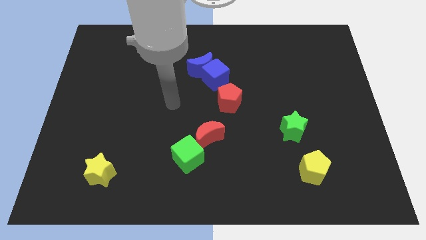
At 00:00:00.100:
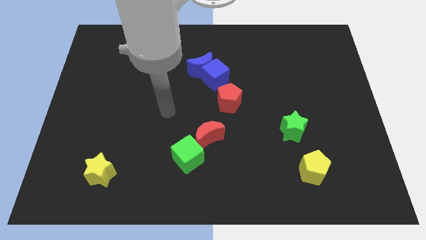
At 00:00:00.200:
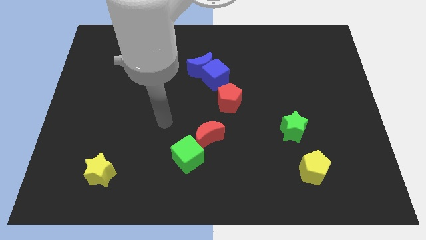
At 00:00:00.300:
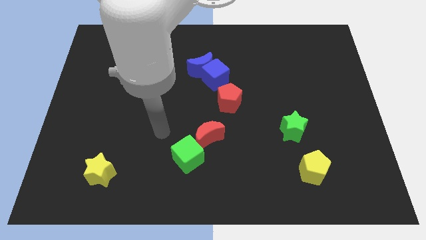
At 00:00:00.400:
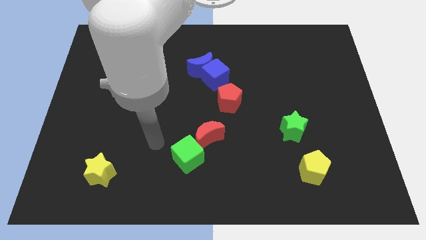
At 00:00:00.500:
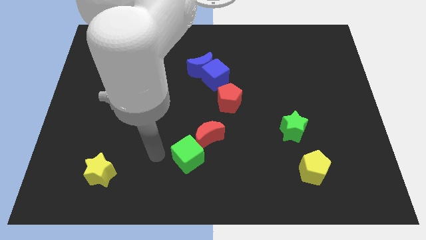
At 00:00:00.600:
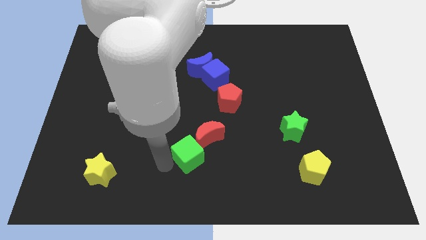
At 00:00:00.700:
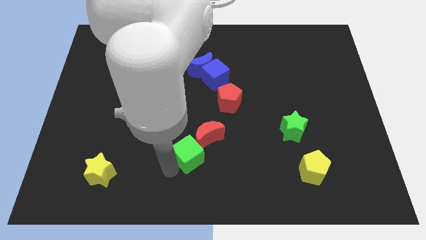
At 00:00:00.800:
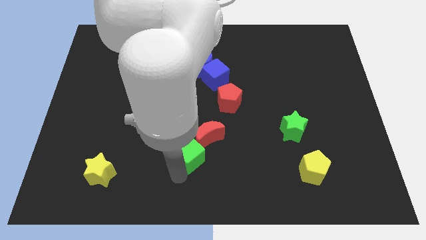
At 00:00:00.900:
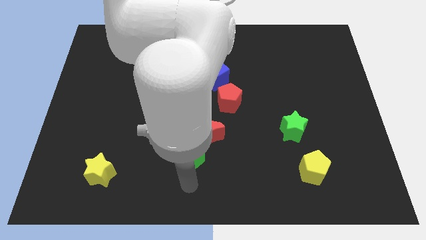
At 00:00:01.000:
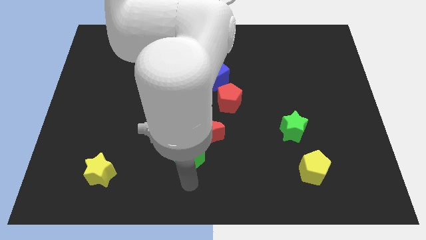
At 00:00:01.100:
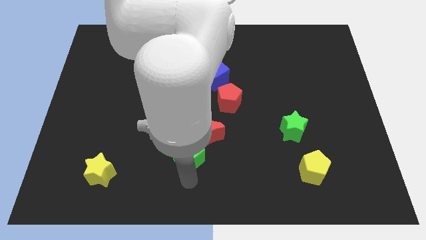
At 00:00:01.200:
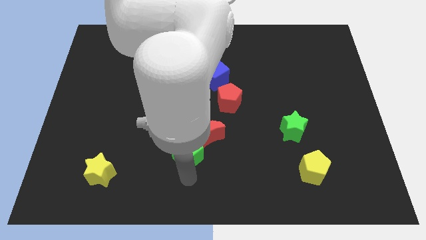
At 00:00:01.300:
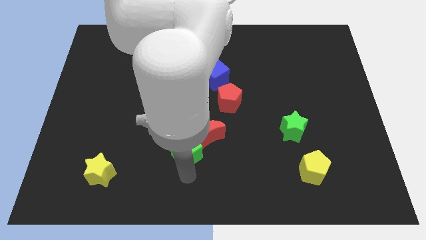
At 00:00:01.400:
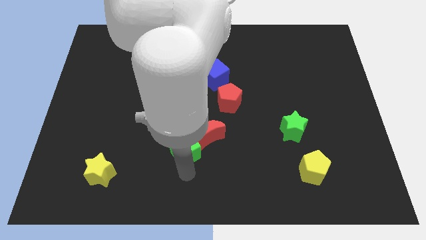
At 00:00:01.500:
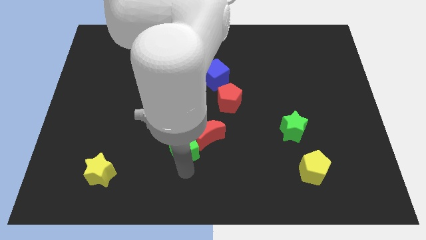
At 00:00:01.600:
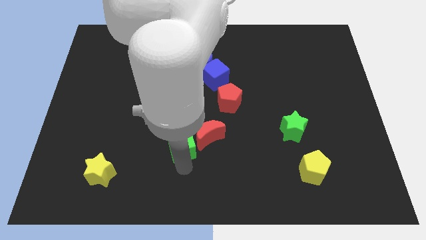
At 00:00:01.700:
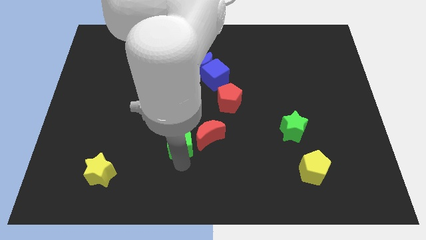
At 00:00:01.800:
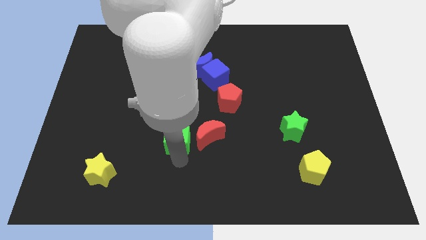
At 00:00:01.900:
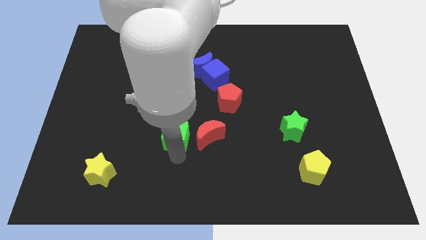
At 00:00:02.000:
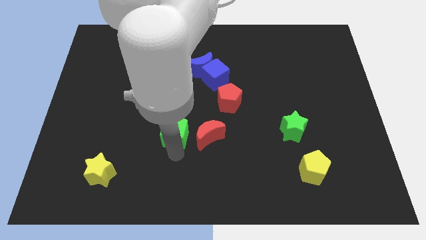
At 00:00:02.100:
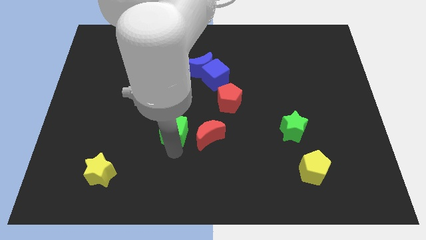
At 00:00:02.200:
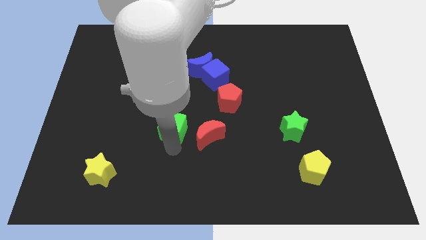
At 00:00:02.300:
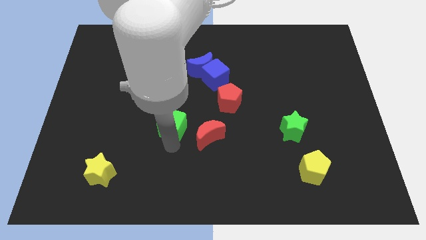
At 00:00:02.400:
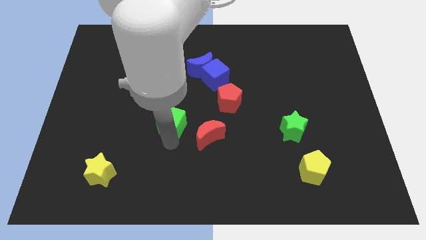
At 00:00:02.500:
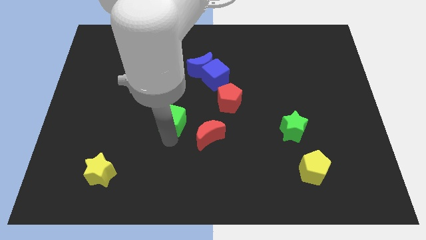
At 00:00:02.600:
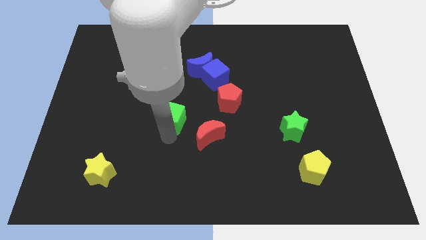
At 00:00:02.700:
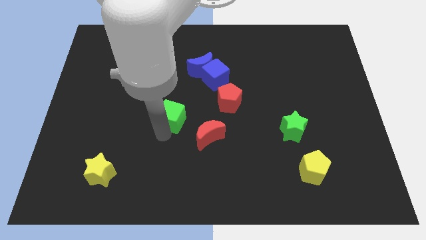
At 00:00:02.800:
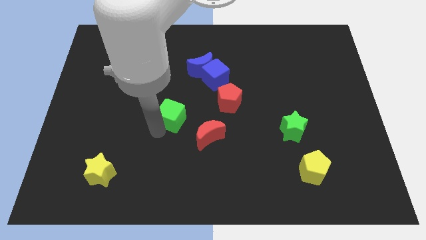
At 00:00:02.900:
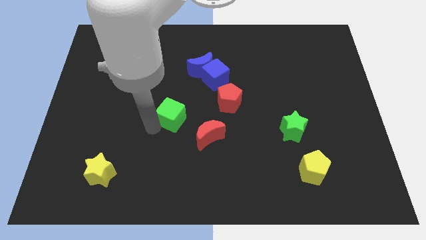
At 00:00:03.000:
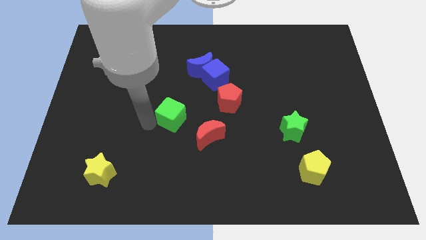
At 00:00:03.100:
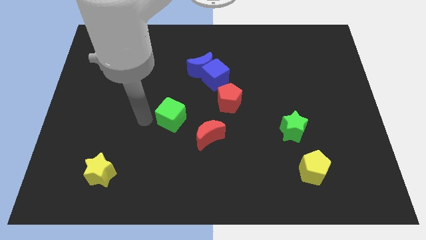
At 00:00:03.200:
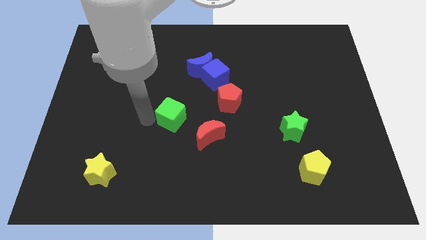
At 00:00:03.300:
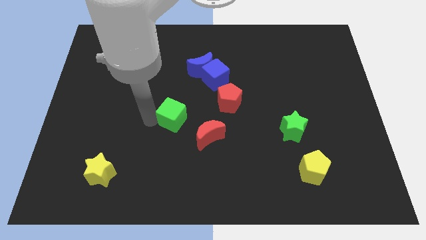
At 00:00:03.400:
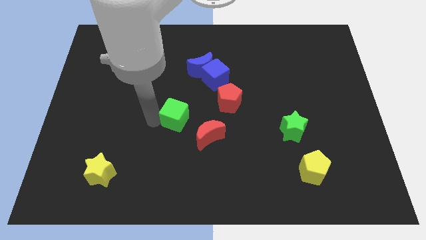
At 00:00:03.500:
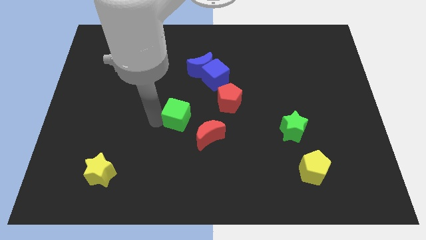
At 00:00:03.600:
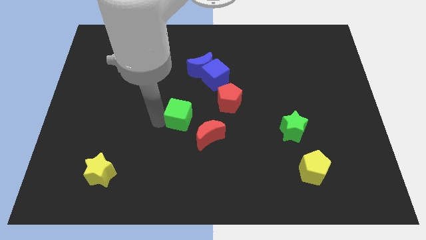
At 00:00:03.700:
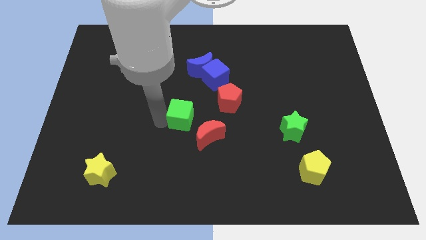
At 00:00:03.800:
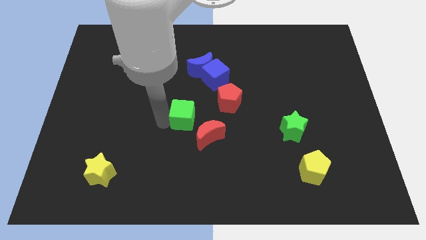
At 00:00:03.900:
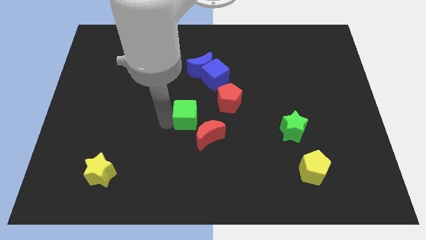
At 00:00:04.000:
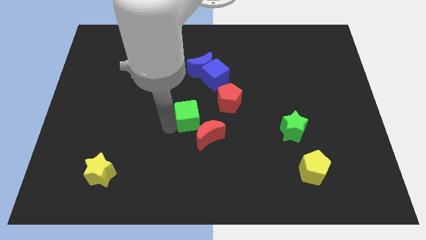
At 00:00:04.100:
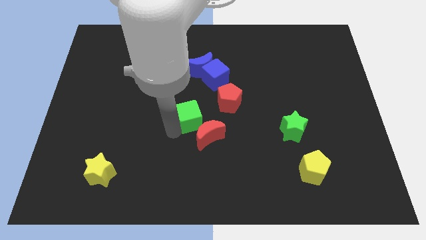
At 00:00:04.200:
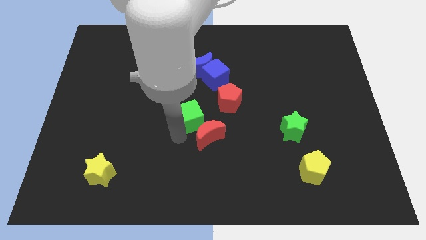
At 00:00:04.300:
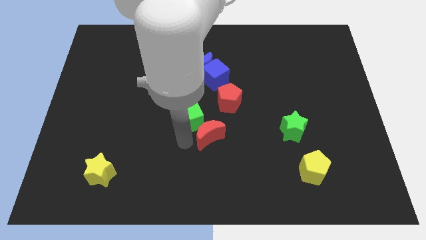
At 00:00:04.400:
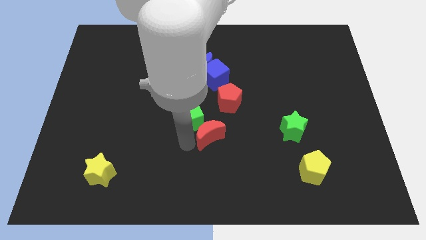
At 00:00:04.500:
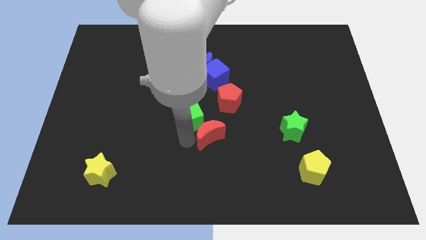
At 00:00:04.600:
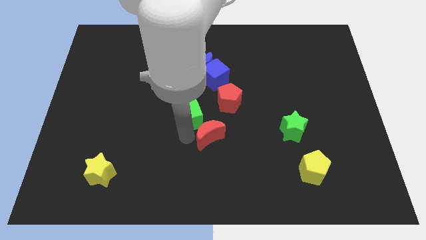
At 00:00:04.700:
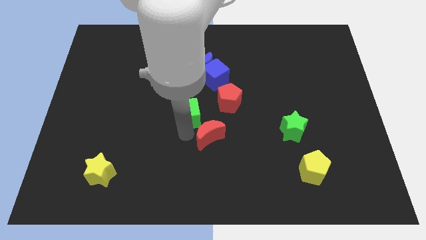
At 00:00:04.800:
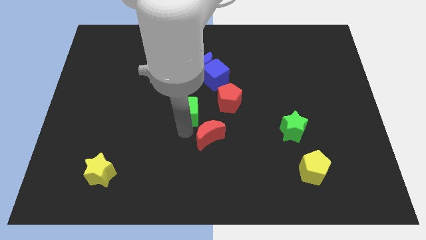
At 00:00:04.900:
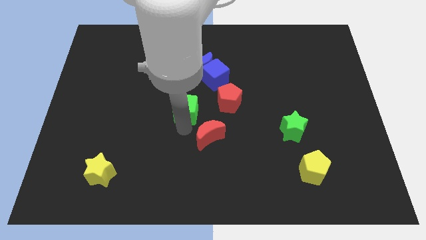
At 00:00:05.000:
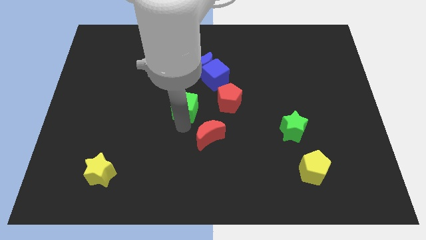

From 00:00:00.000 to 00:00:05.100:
put the green cube diagonally down and to the left of the blue cube

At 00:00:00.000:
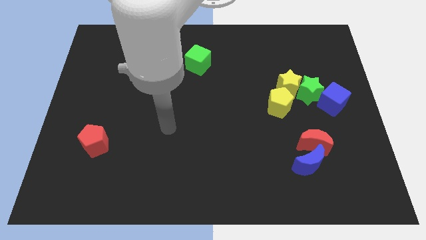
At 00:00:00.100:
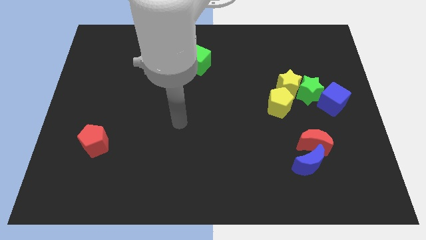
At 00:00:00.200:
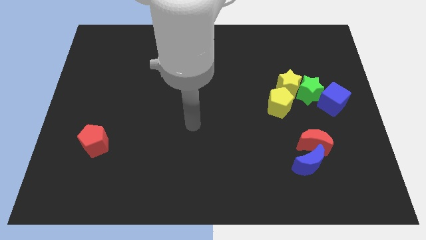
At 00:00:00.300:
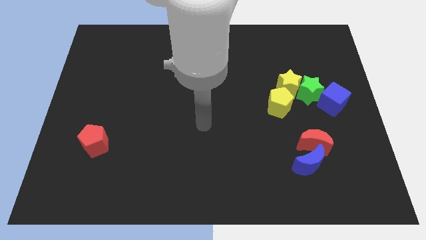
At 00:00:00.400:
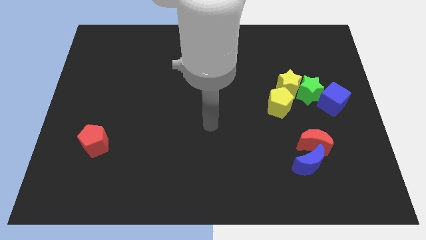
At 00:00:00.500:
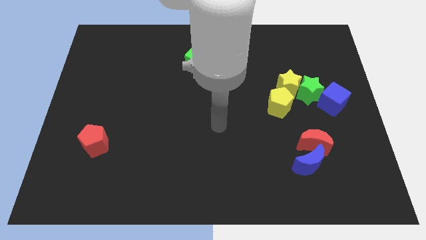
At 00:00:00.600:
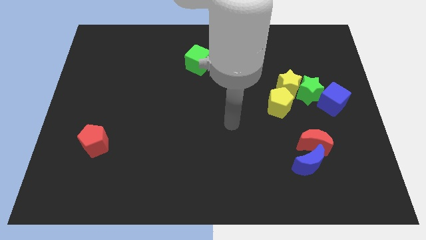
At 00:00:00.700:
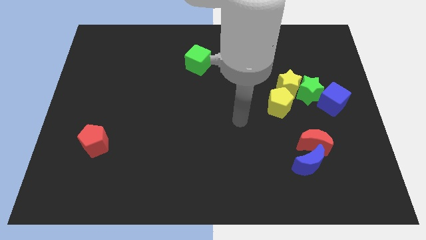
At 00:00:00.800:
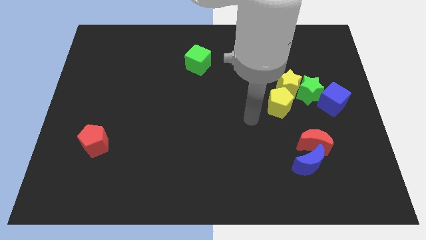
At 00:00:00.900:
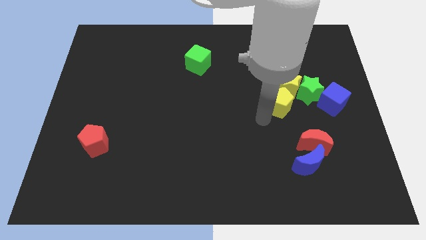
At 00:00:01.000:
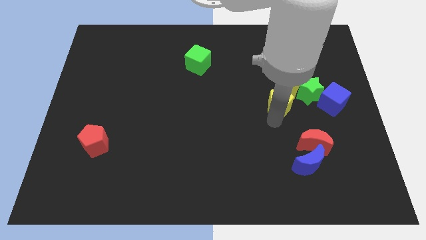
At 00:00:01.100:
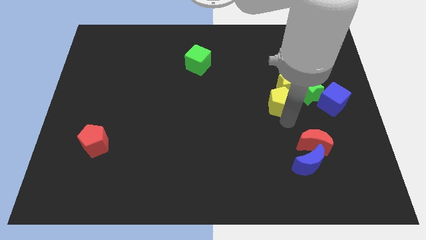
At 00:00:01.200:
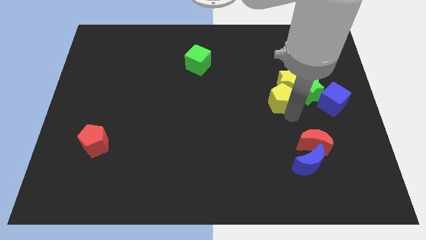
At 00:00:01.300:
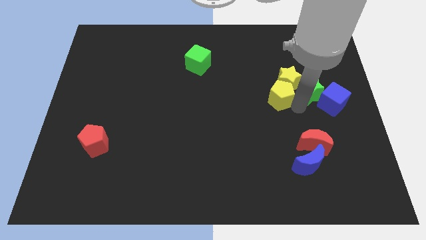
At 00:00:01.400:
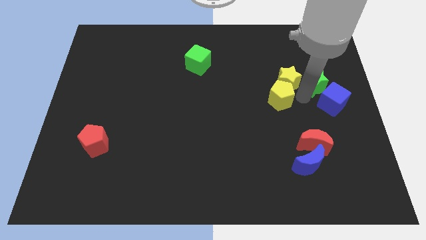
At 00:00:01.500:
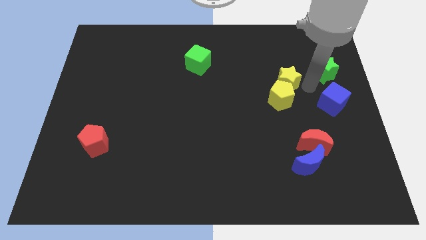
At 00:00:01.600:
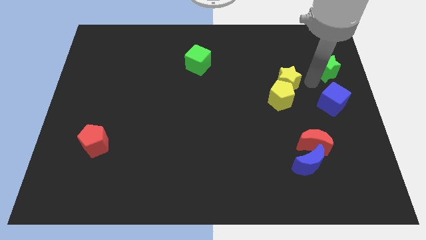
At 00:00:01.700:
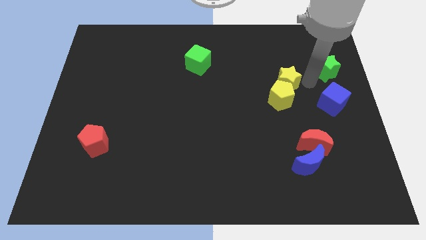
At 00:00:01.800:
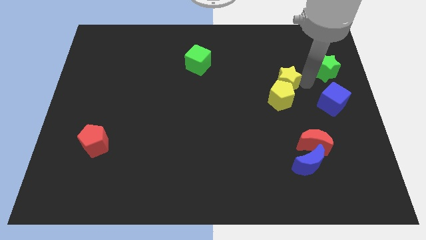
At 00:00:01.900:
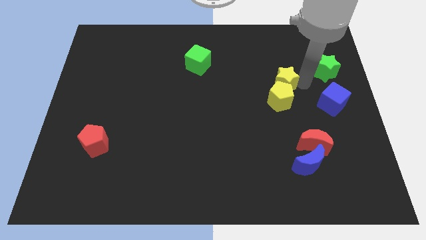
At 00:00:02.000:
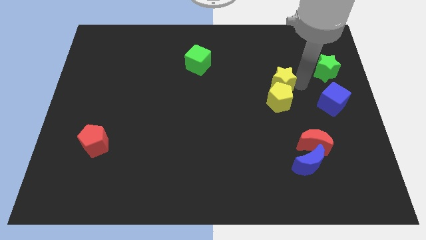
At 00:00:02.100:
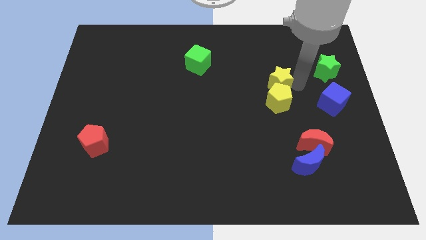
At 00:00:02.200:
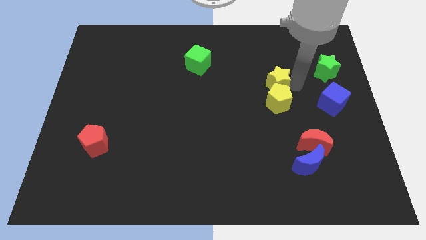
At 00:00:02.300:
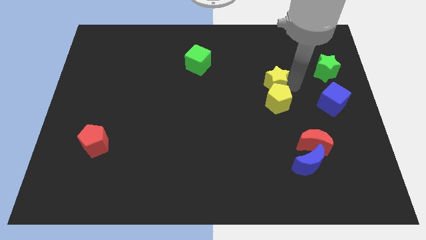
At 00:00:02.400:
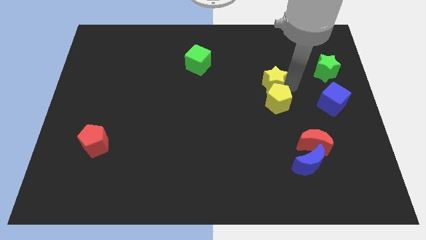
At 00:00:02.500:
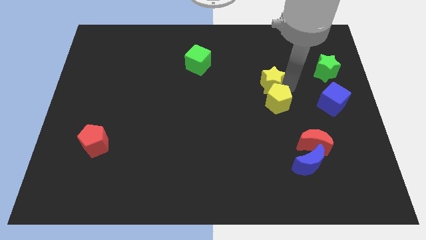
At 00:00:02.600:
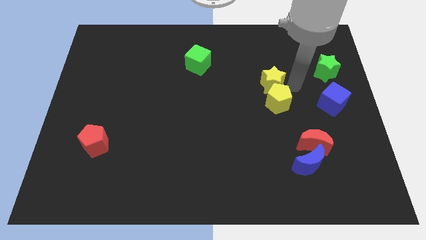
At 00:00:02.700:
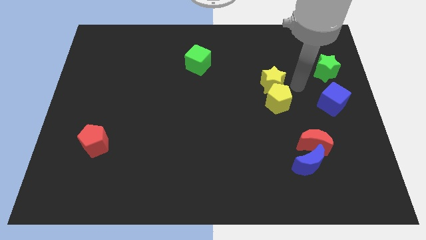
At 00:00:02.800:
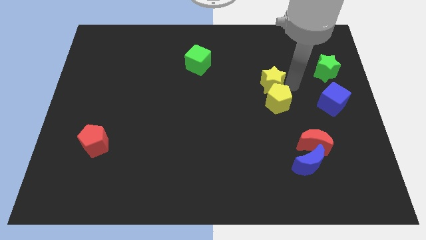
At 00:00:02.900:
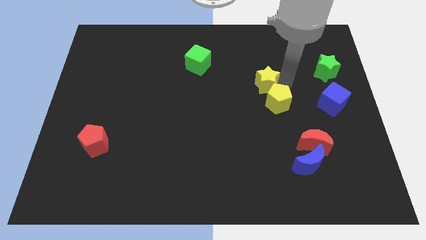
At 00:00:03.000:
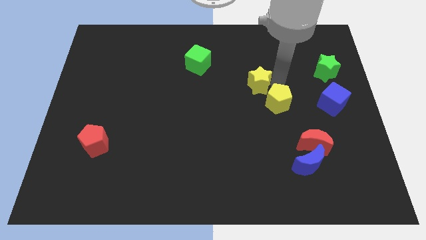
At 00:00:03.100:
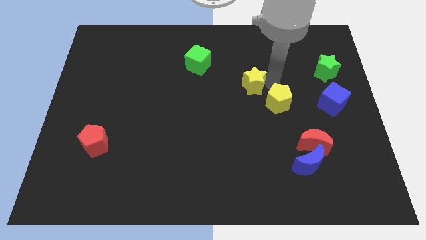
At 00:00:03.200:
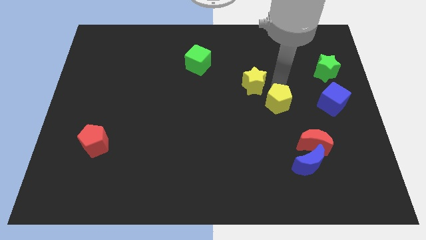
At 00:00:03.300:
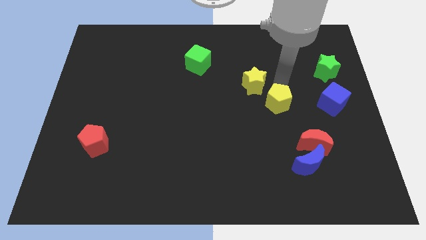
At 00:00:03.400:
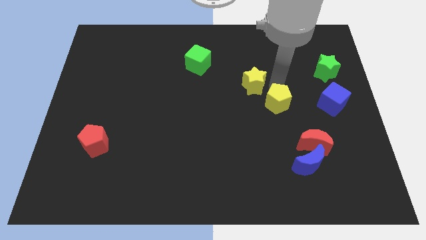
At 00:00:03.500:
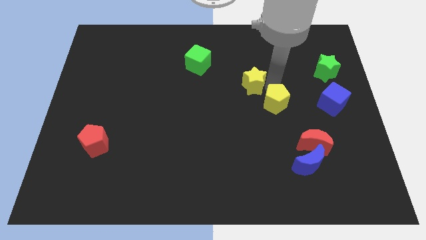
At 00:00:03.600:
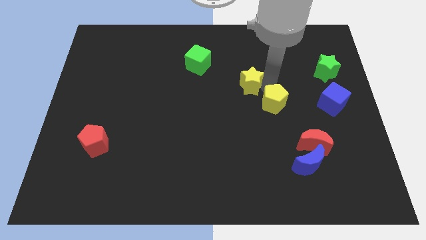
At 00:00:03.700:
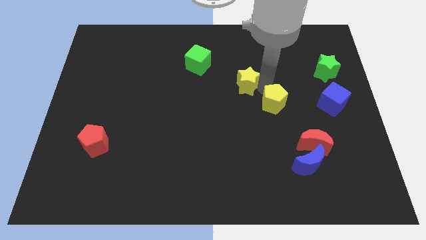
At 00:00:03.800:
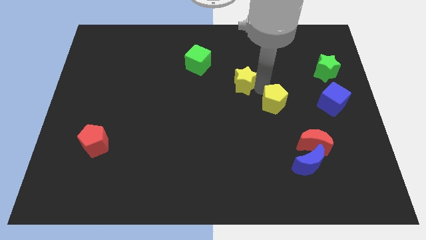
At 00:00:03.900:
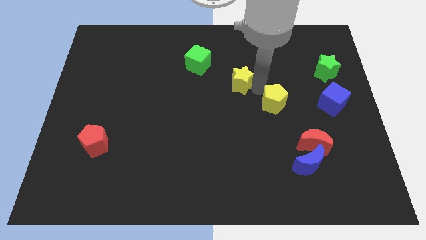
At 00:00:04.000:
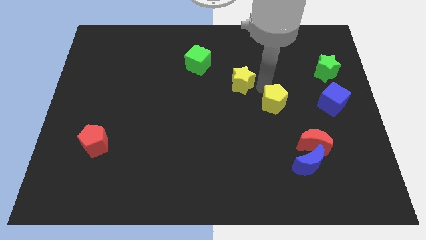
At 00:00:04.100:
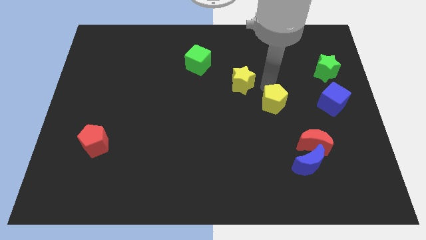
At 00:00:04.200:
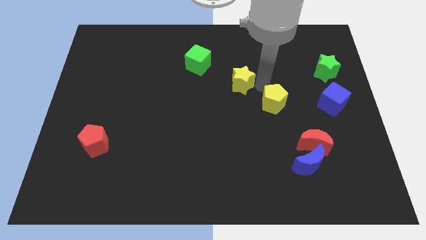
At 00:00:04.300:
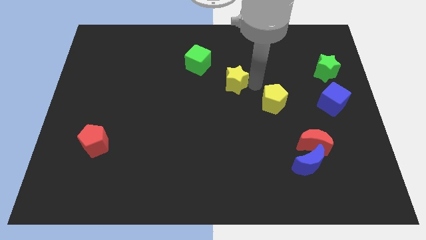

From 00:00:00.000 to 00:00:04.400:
put the yellow star diagonally down and to the right of the green cube
